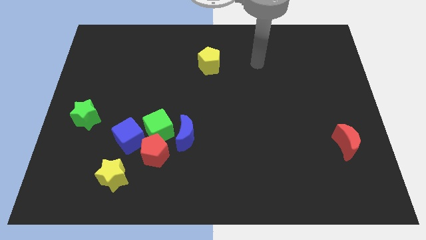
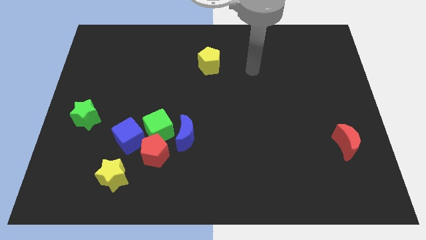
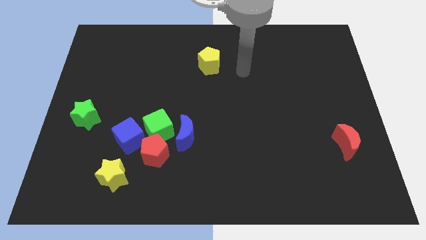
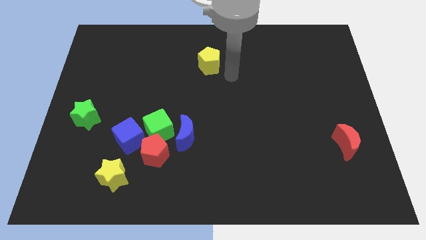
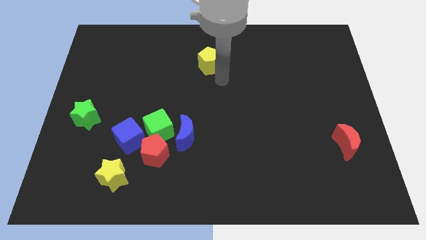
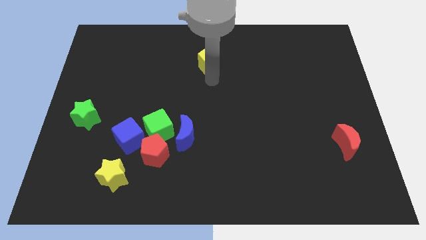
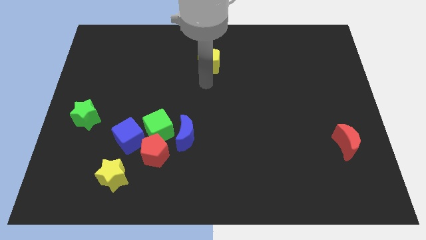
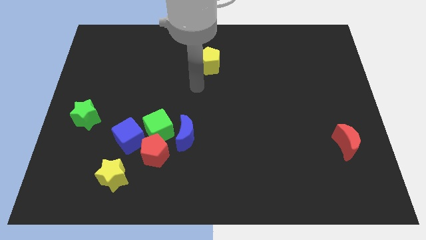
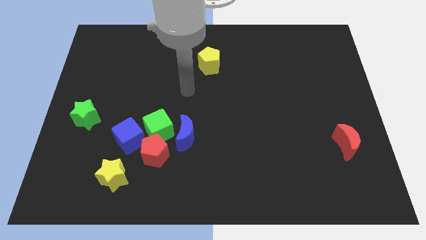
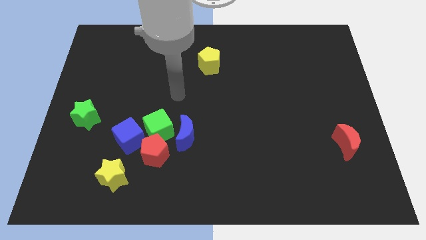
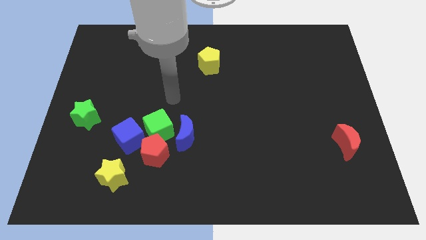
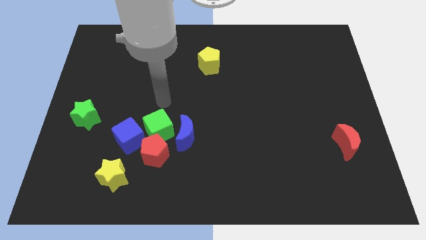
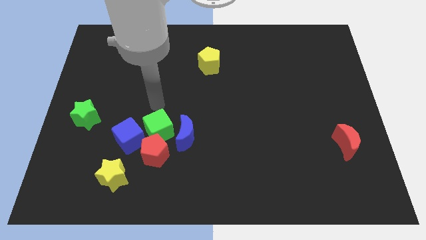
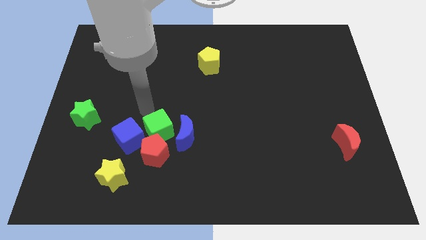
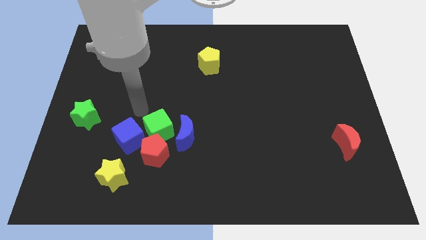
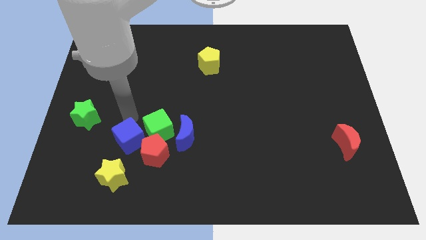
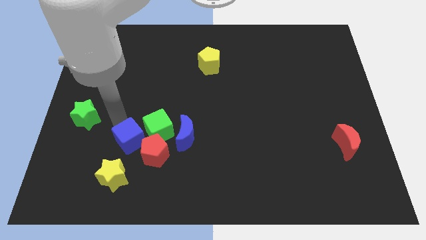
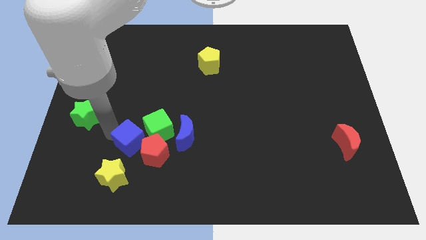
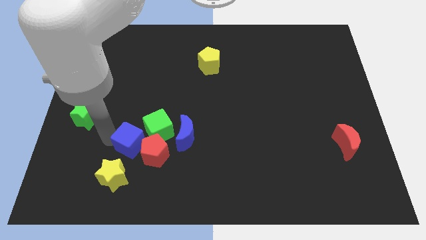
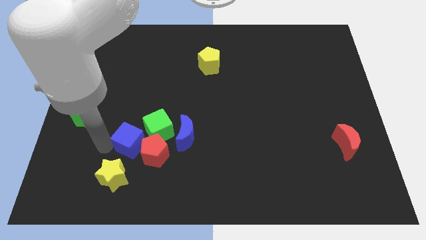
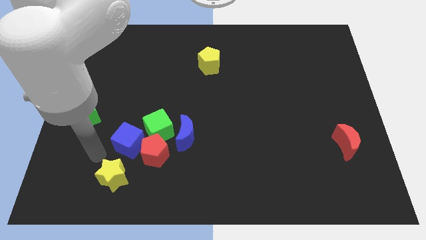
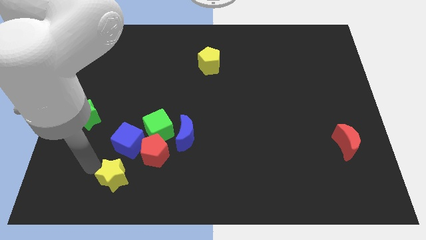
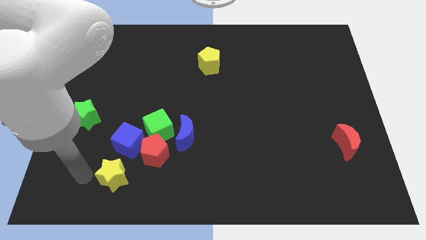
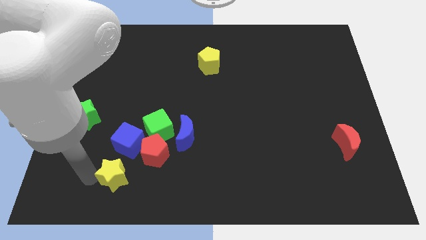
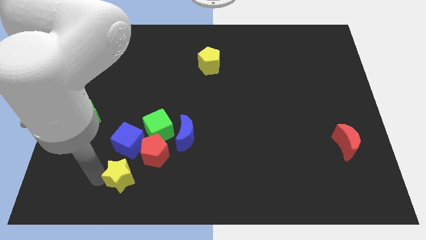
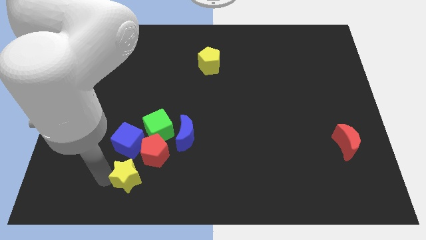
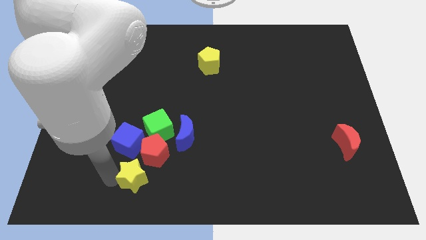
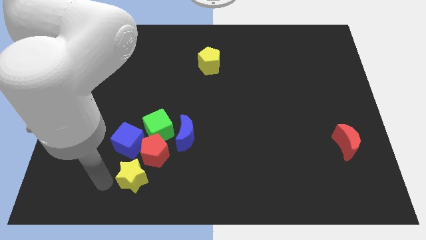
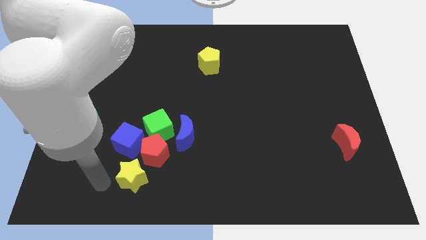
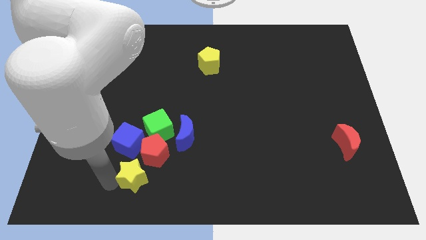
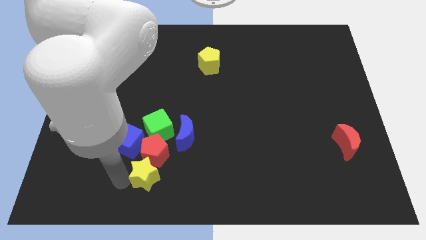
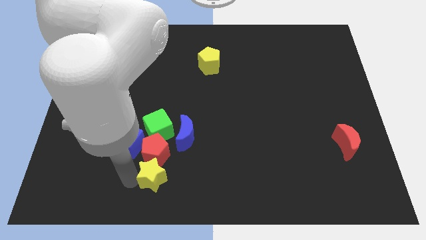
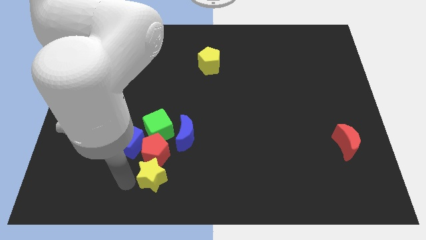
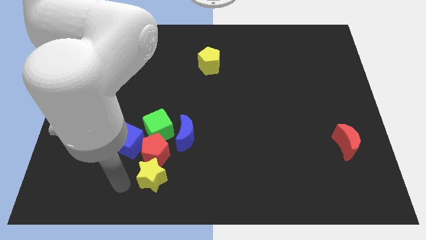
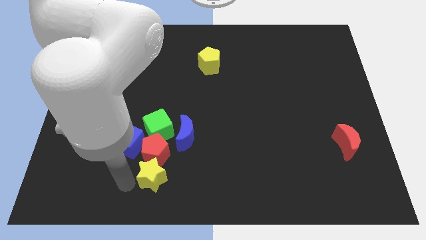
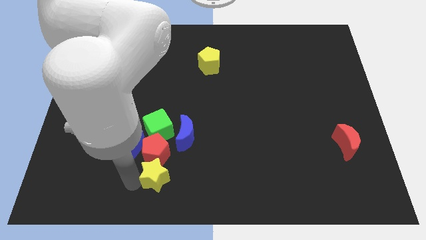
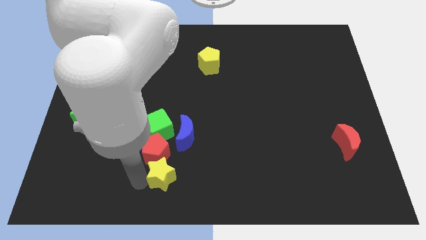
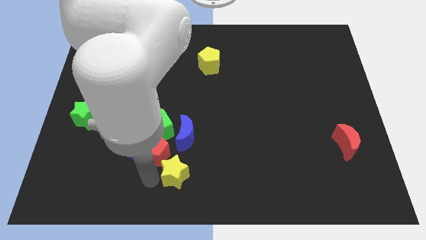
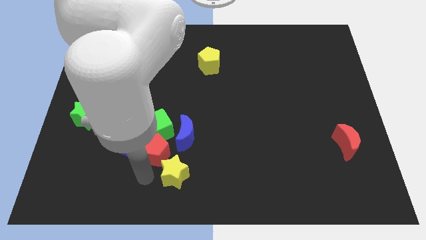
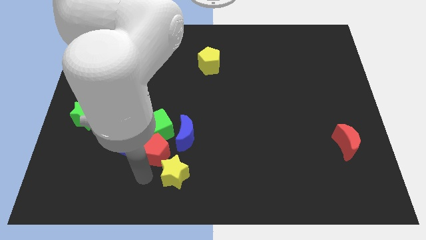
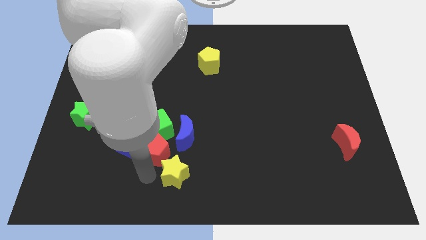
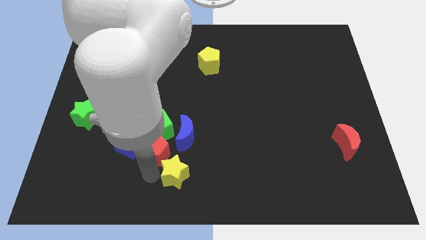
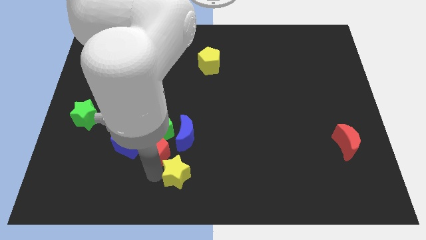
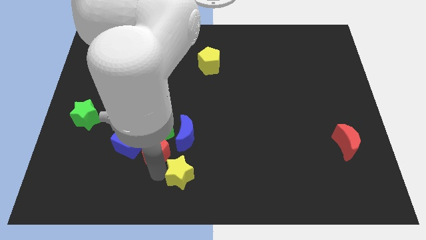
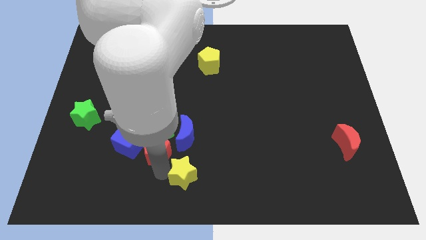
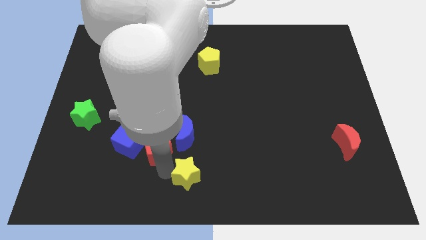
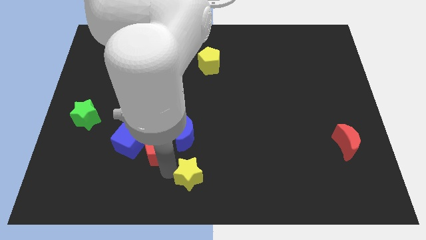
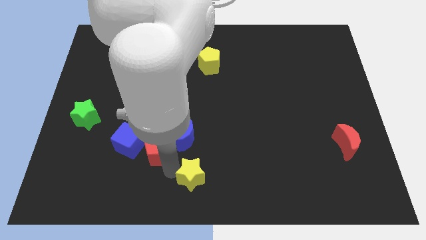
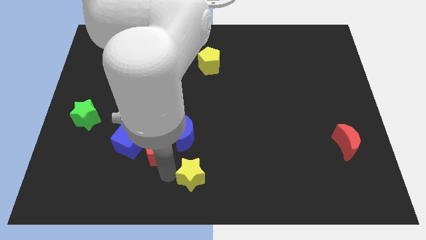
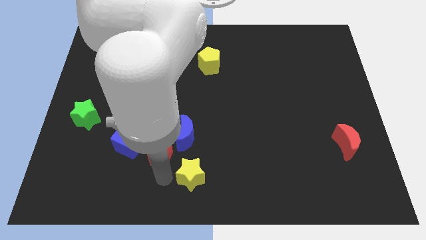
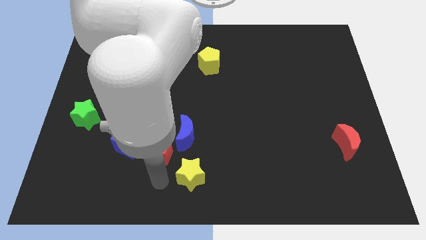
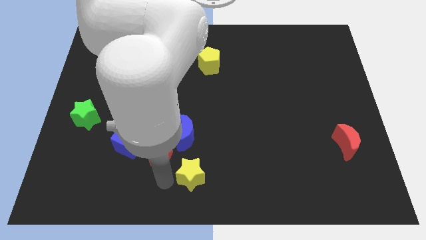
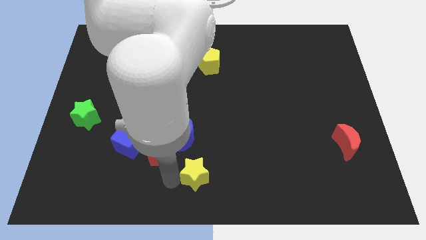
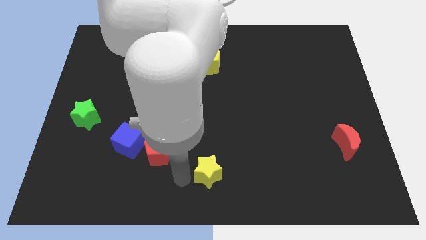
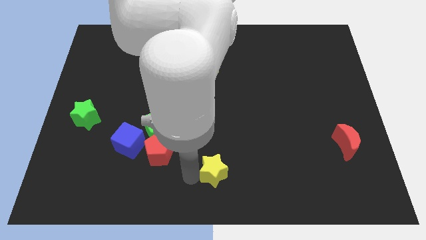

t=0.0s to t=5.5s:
move the yellow star right

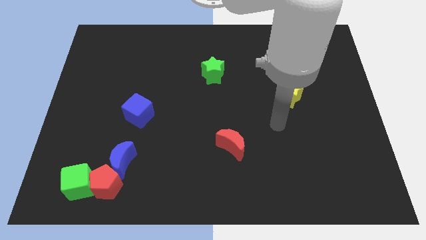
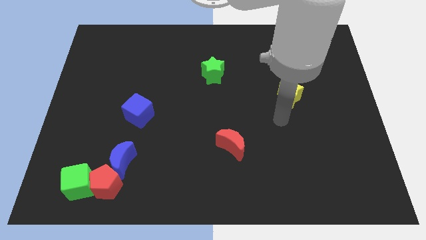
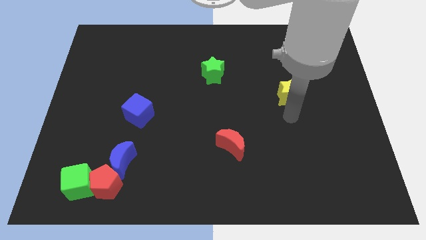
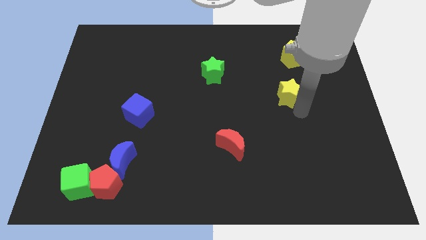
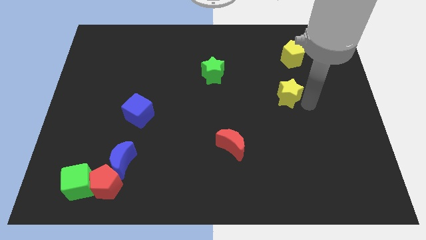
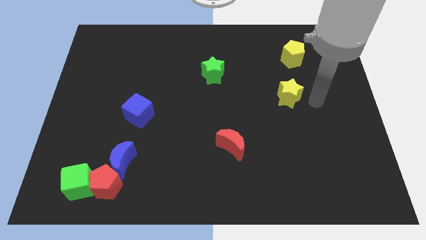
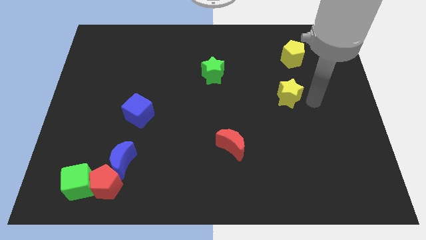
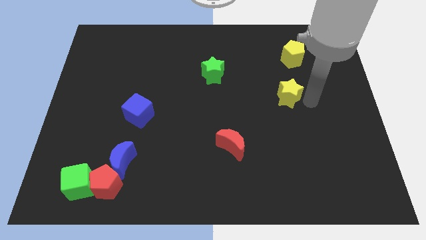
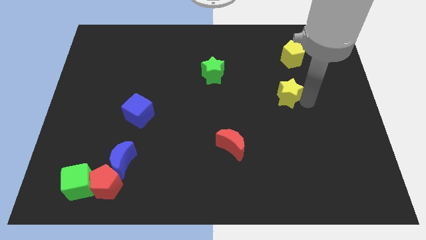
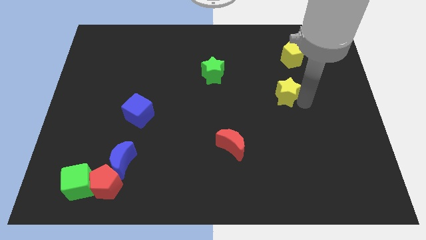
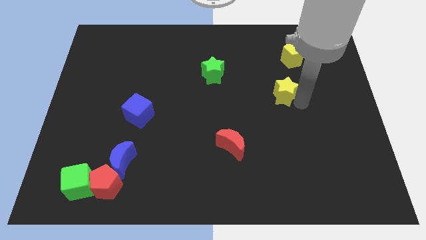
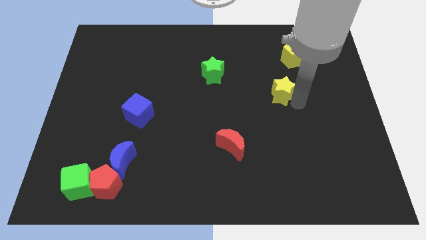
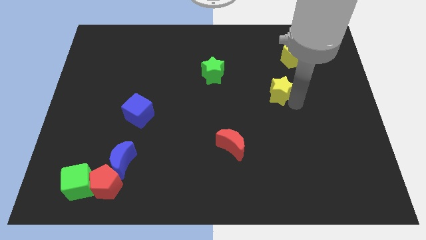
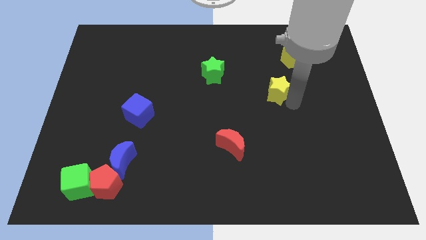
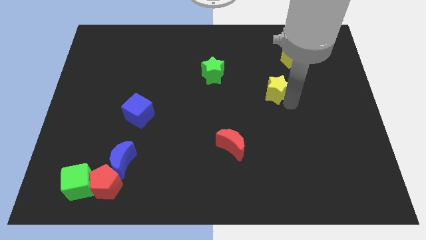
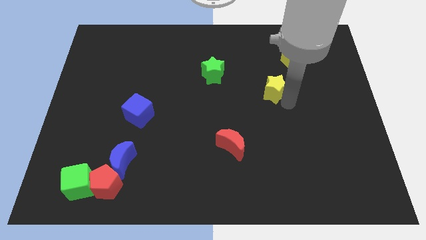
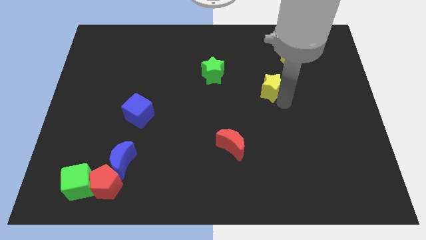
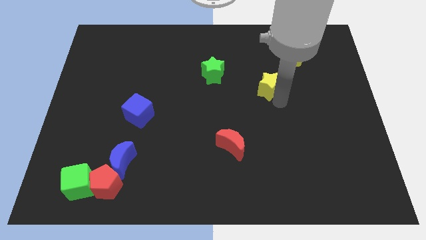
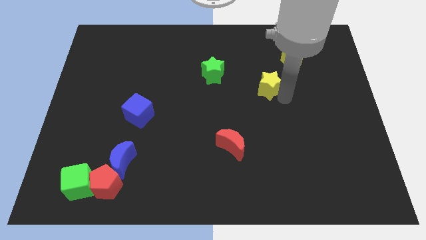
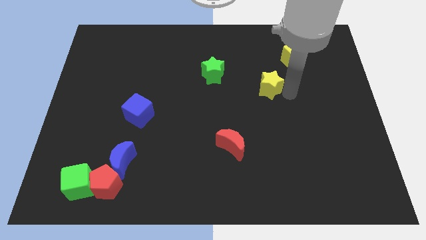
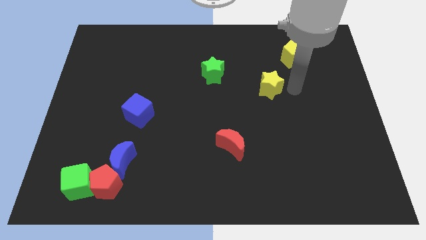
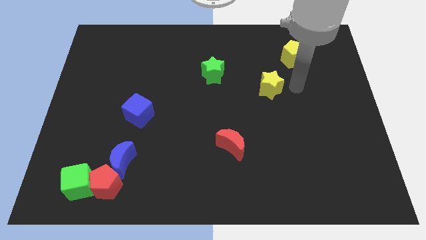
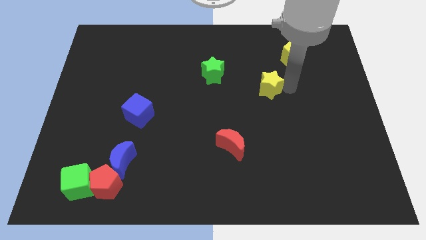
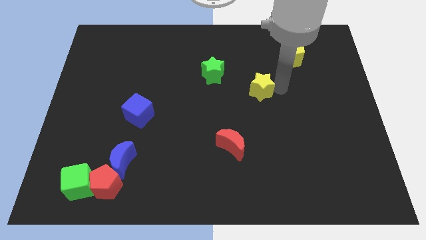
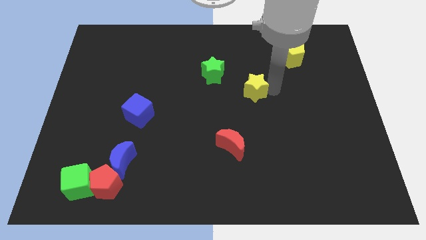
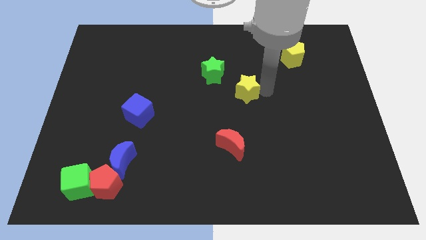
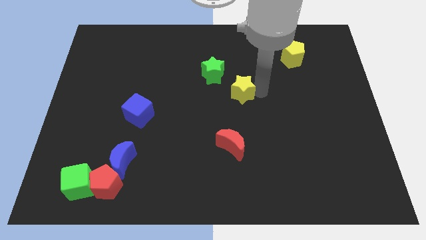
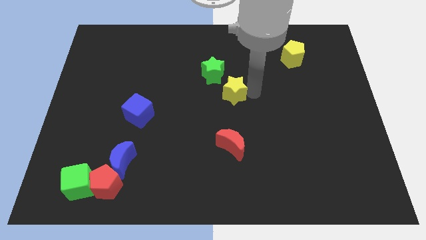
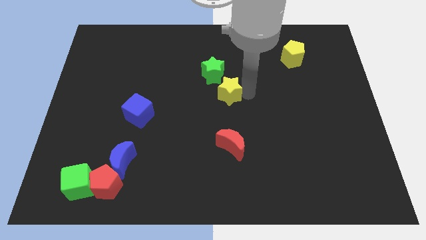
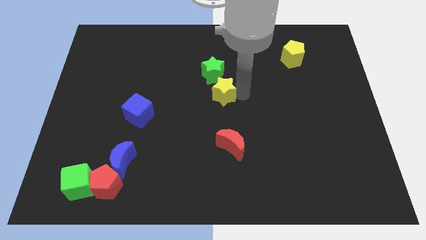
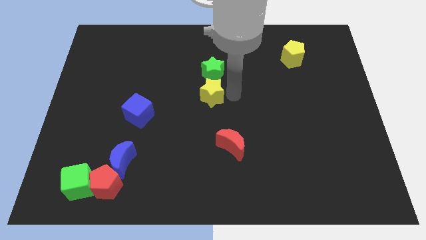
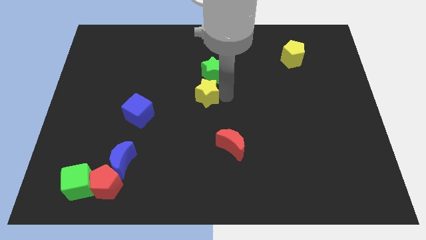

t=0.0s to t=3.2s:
slide the yellow star left
